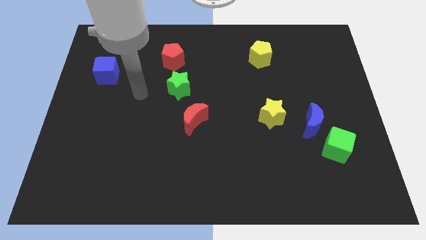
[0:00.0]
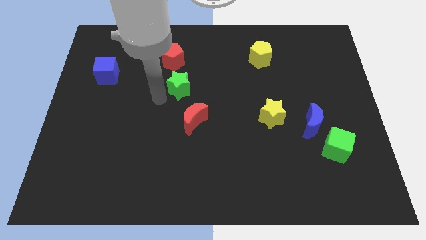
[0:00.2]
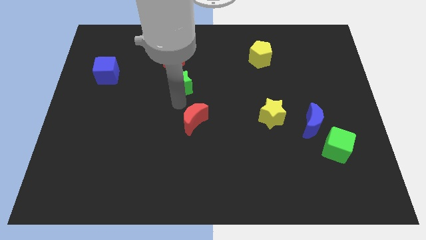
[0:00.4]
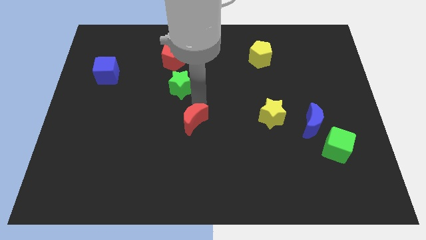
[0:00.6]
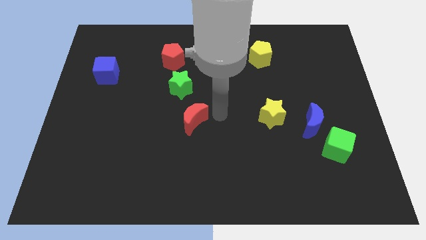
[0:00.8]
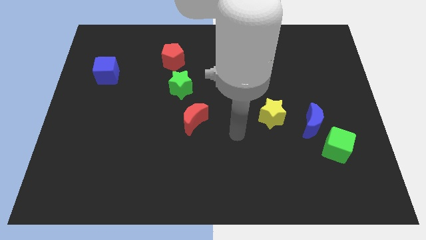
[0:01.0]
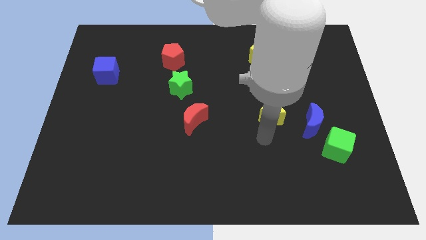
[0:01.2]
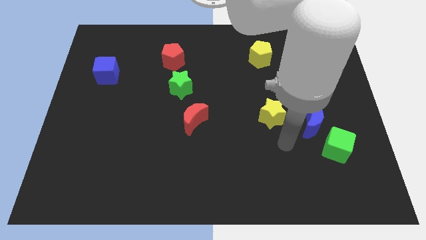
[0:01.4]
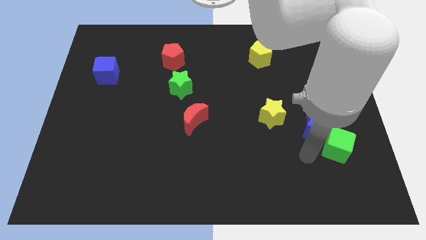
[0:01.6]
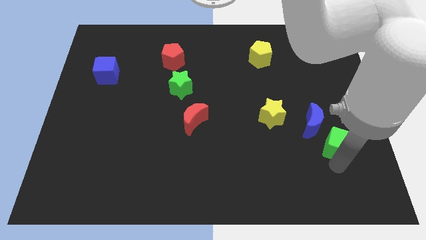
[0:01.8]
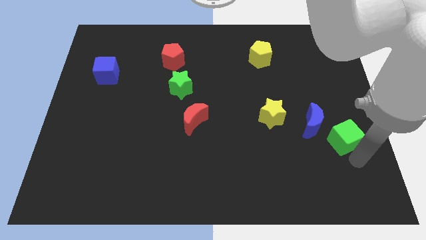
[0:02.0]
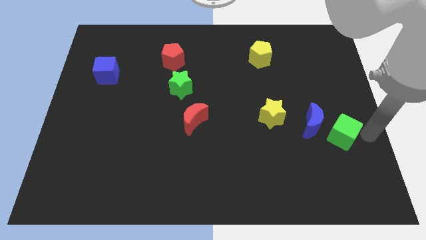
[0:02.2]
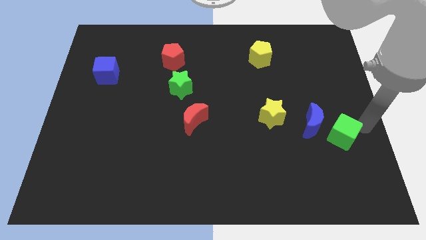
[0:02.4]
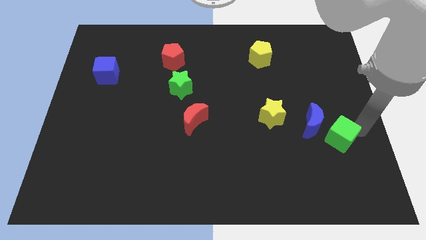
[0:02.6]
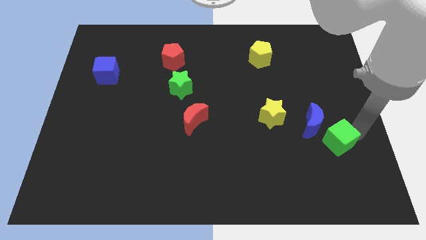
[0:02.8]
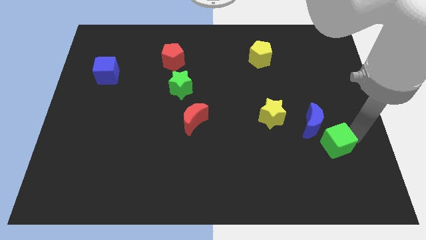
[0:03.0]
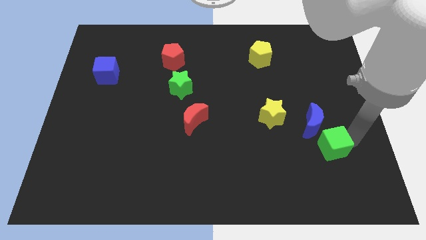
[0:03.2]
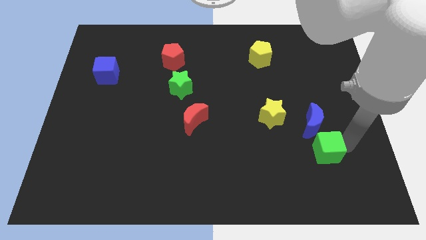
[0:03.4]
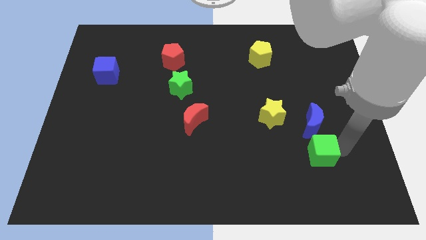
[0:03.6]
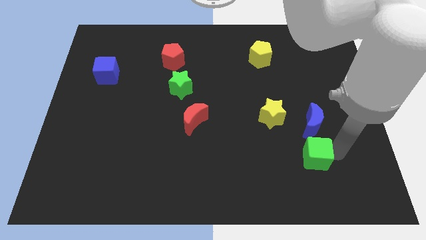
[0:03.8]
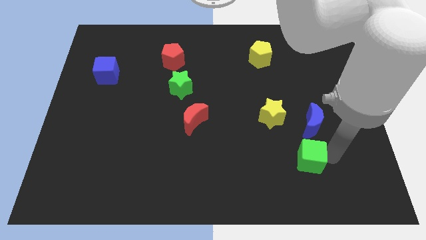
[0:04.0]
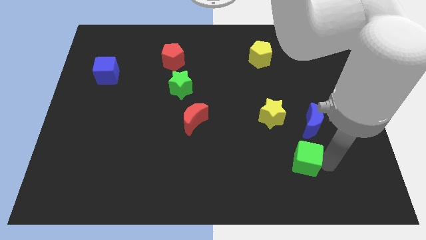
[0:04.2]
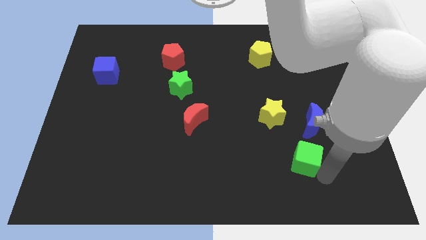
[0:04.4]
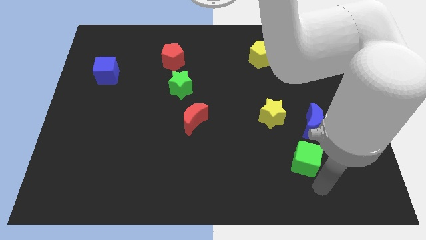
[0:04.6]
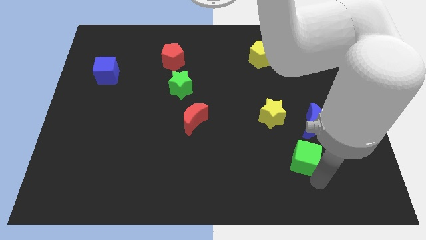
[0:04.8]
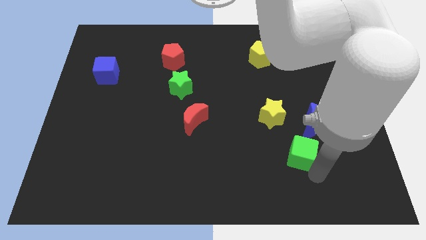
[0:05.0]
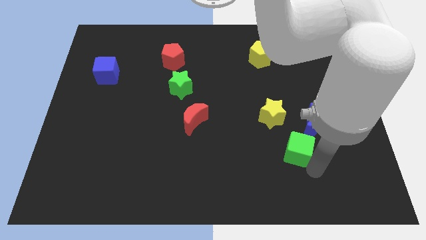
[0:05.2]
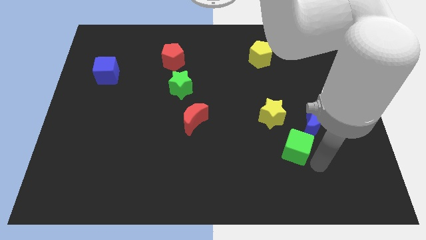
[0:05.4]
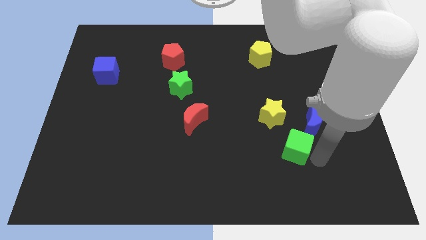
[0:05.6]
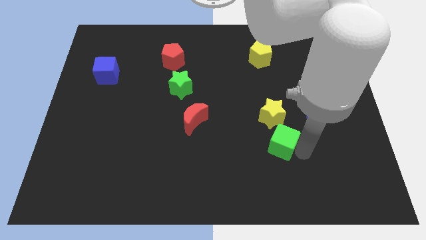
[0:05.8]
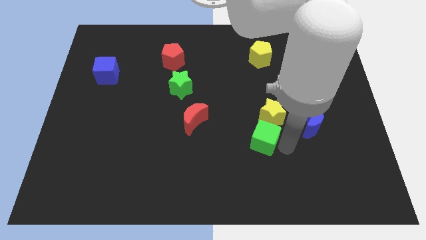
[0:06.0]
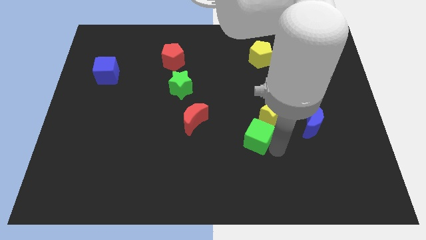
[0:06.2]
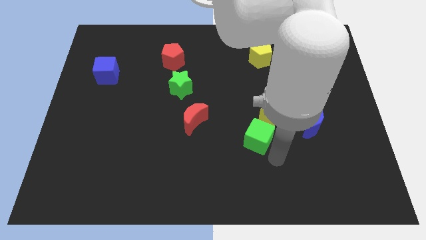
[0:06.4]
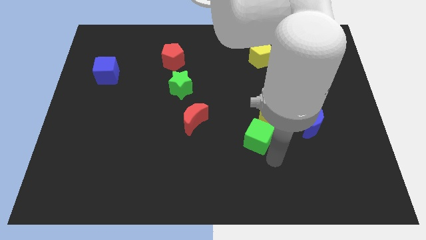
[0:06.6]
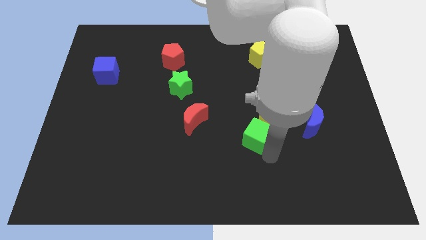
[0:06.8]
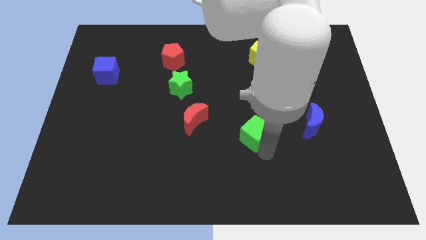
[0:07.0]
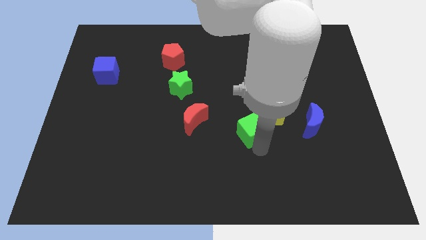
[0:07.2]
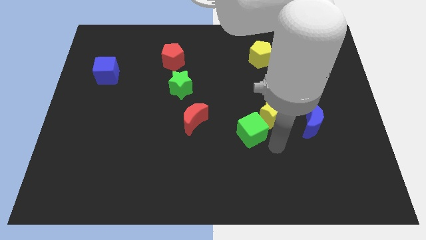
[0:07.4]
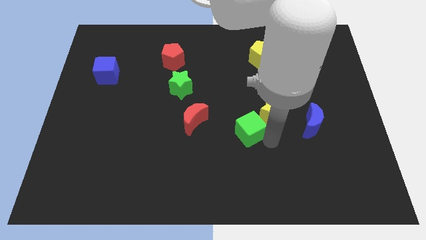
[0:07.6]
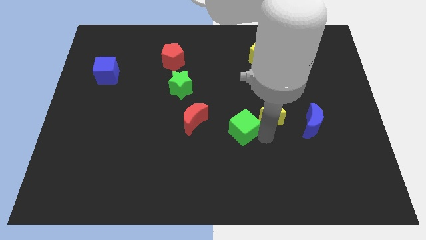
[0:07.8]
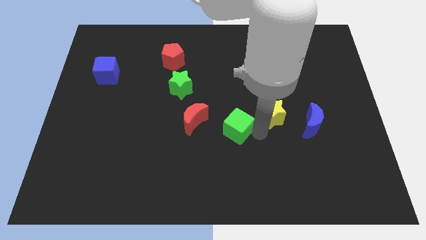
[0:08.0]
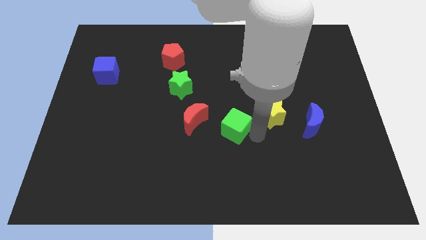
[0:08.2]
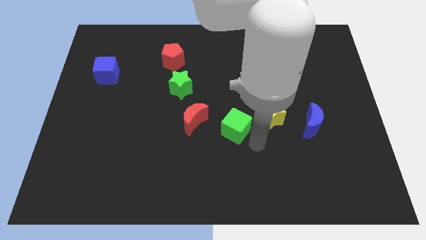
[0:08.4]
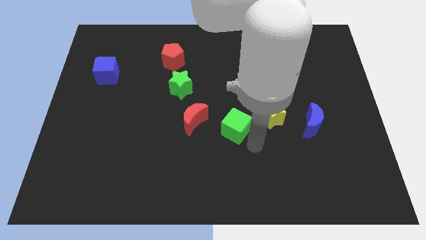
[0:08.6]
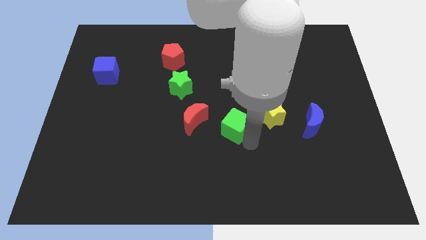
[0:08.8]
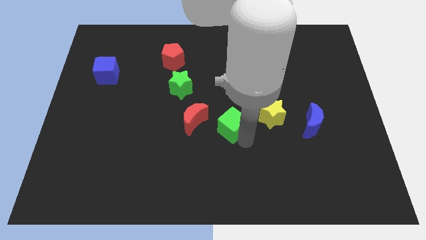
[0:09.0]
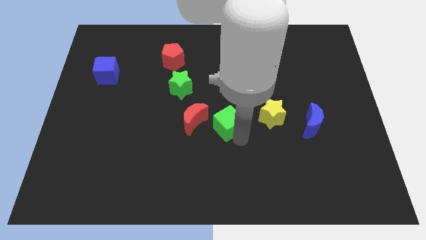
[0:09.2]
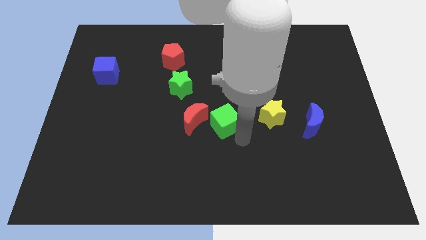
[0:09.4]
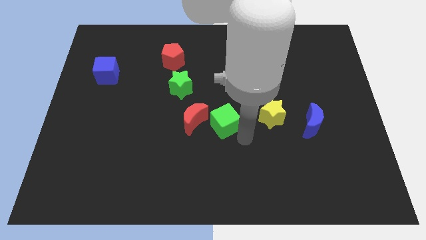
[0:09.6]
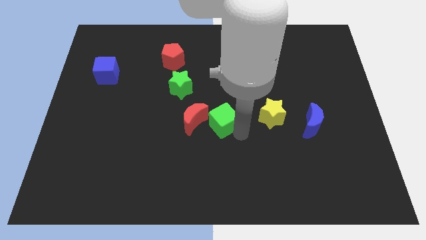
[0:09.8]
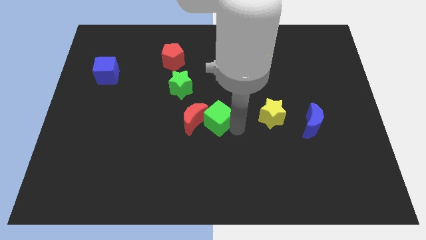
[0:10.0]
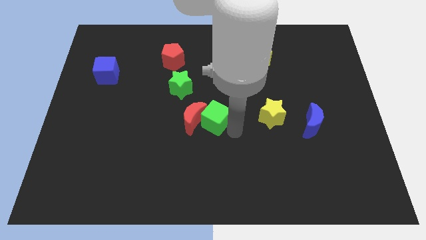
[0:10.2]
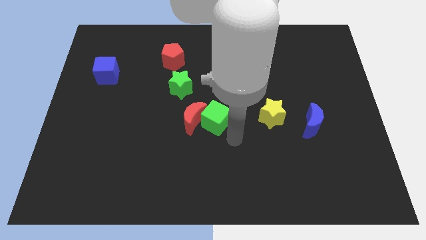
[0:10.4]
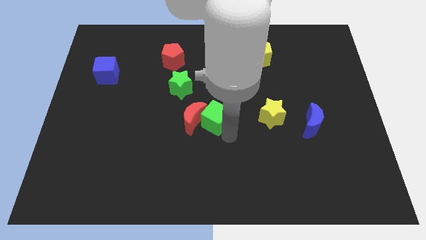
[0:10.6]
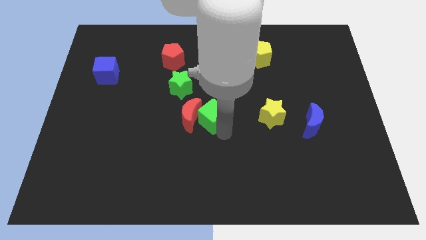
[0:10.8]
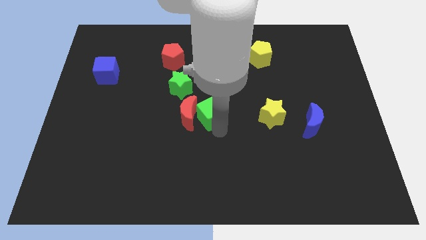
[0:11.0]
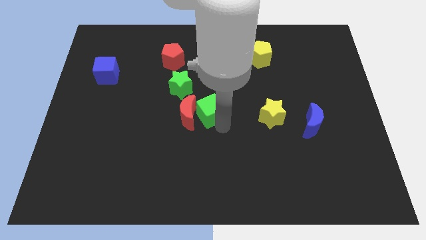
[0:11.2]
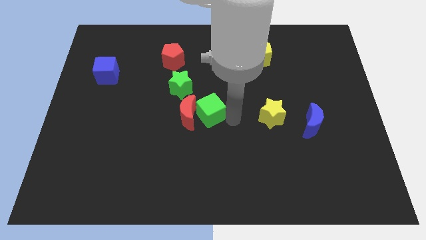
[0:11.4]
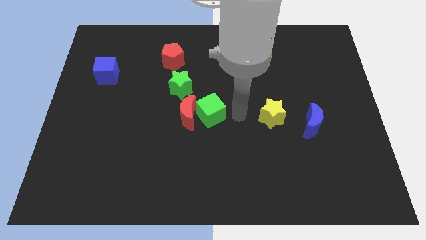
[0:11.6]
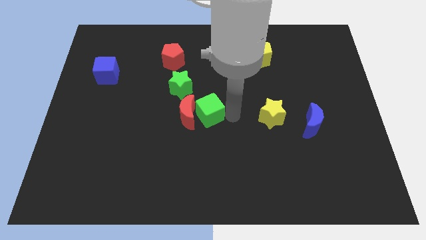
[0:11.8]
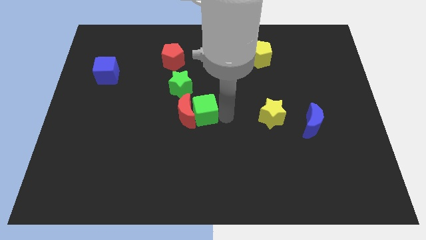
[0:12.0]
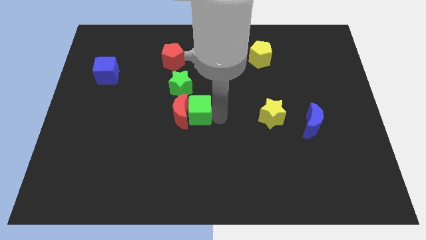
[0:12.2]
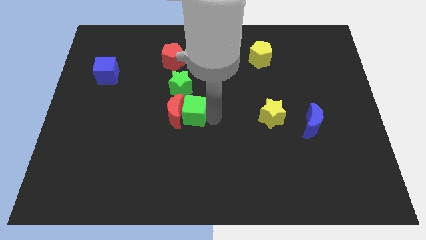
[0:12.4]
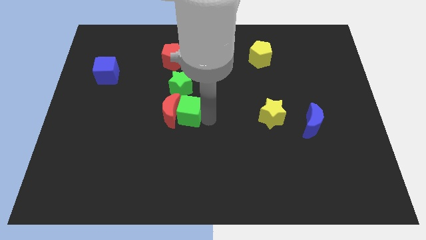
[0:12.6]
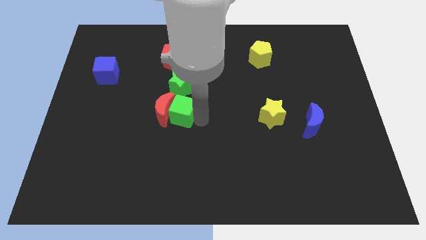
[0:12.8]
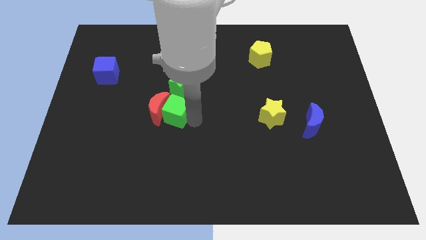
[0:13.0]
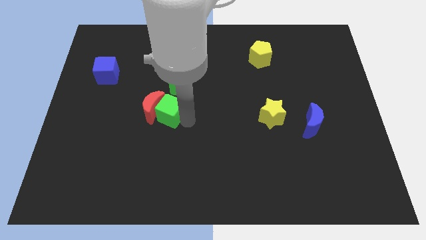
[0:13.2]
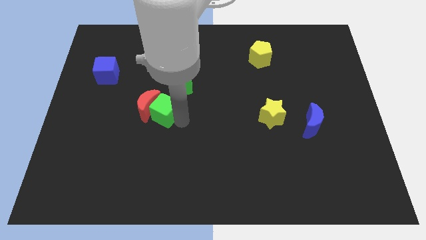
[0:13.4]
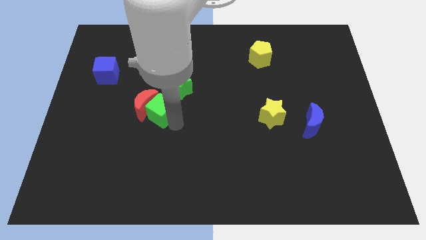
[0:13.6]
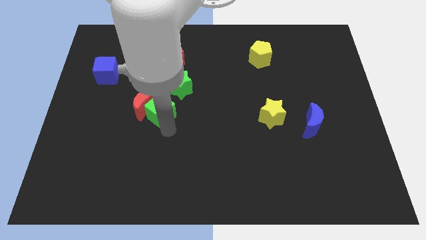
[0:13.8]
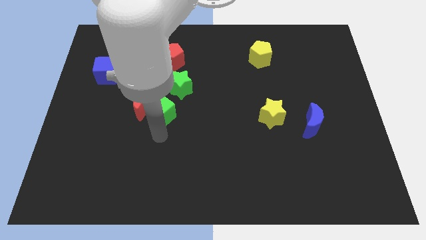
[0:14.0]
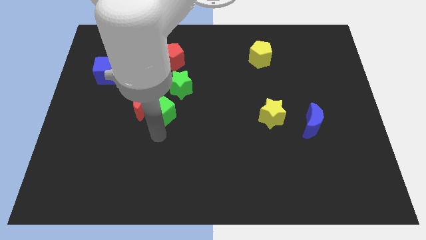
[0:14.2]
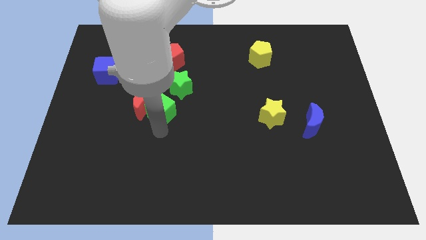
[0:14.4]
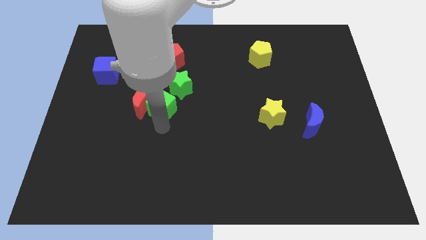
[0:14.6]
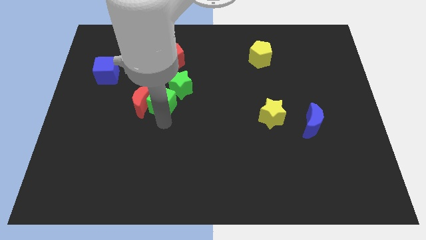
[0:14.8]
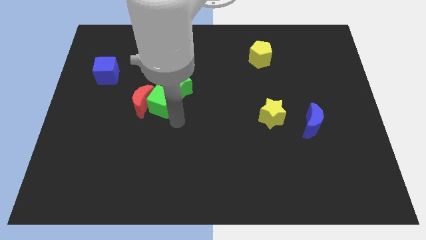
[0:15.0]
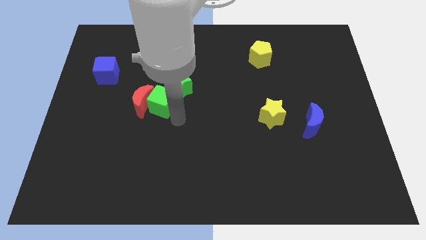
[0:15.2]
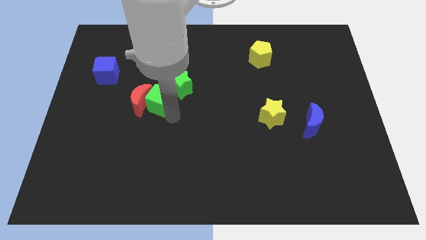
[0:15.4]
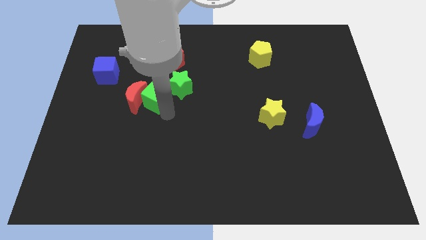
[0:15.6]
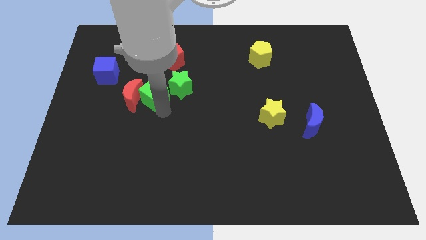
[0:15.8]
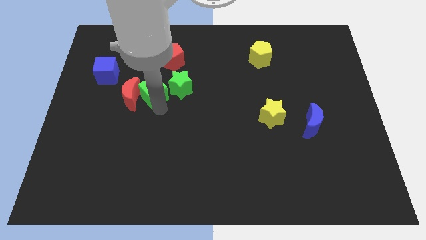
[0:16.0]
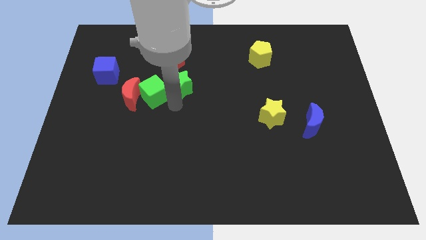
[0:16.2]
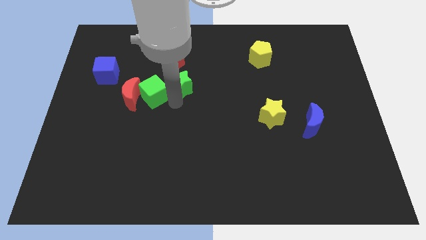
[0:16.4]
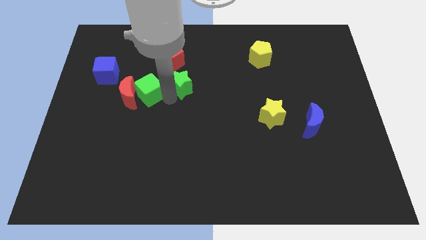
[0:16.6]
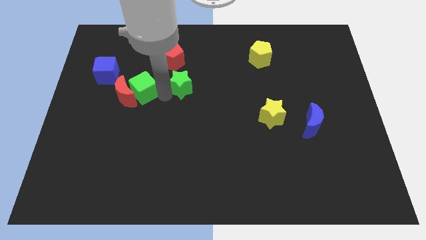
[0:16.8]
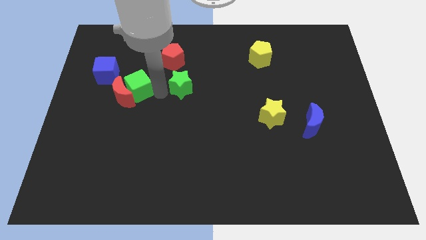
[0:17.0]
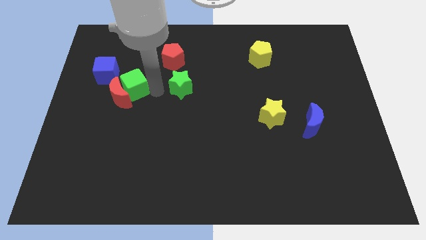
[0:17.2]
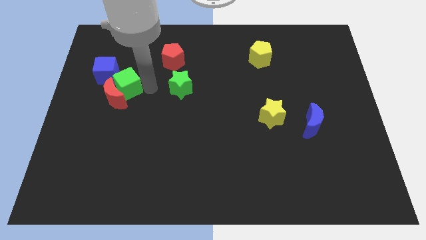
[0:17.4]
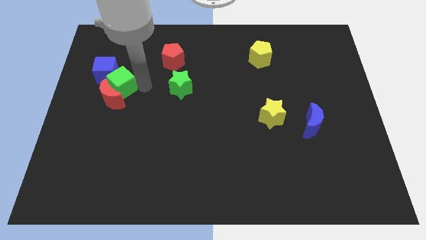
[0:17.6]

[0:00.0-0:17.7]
move the green cube to the blue cube
